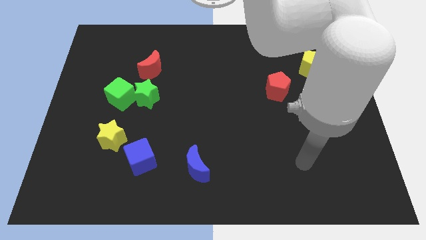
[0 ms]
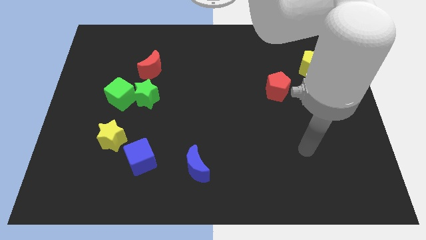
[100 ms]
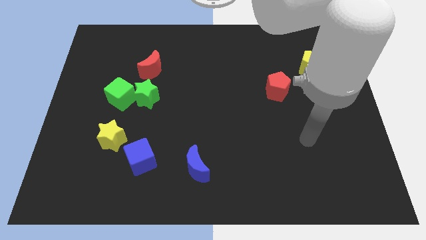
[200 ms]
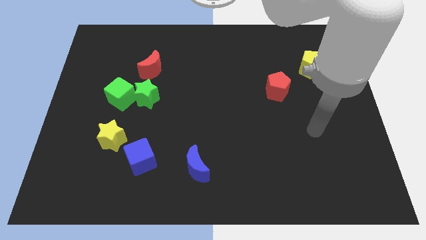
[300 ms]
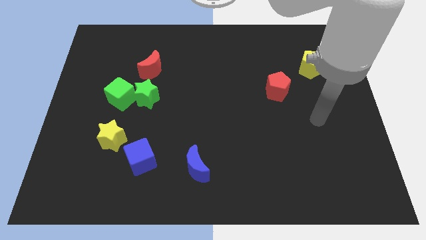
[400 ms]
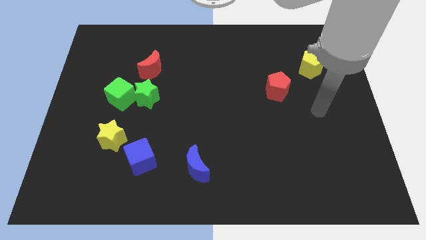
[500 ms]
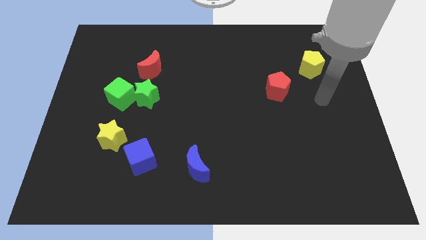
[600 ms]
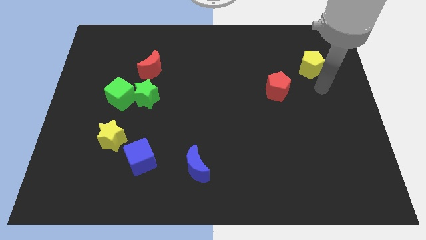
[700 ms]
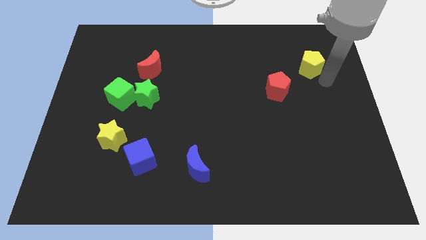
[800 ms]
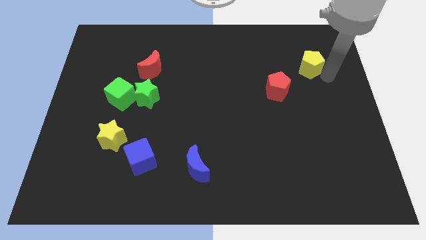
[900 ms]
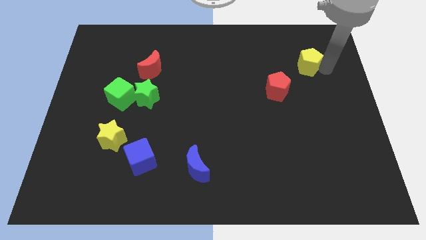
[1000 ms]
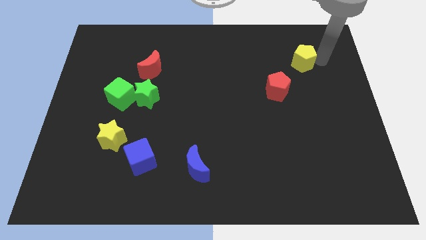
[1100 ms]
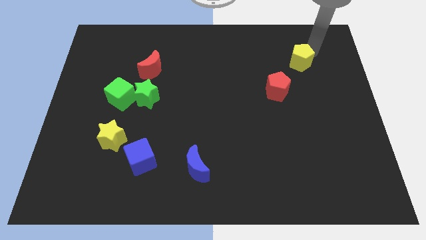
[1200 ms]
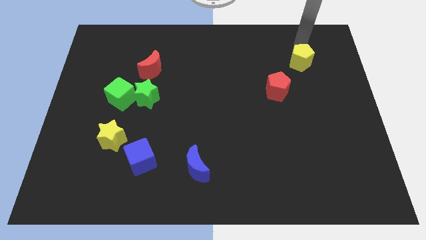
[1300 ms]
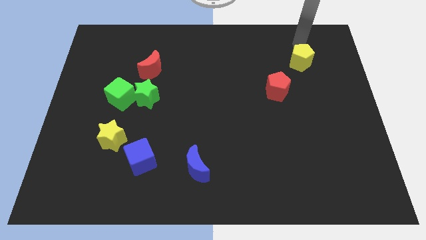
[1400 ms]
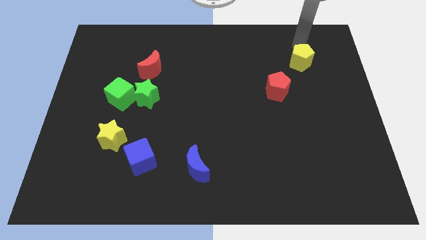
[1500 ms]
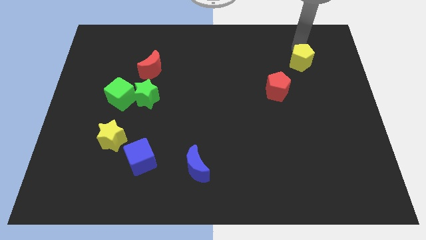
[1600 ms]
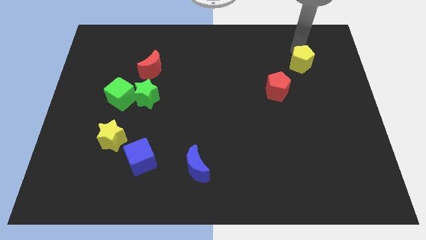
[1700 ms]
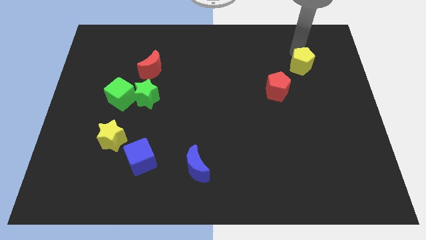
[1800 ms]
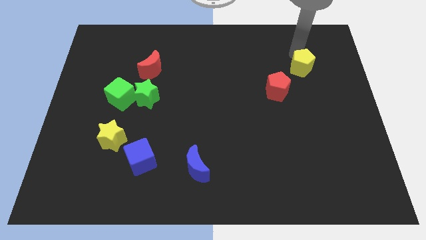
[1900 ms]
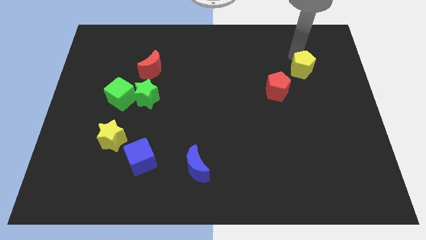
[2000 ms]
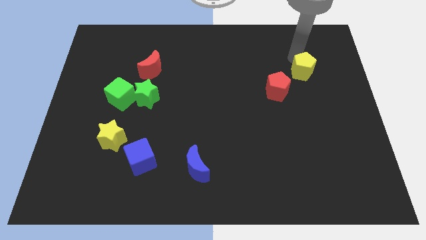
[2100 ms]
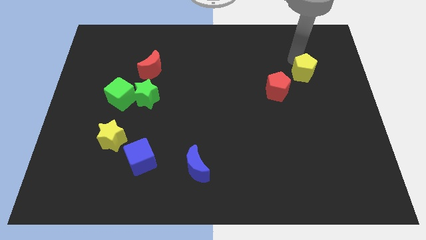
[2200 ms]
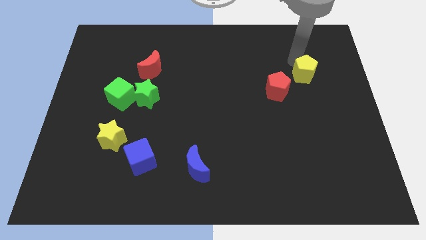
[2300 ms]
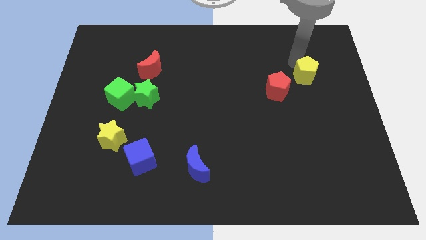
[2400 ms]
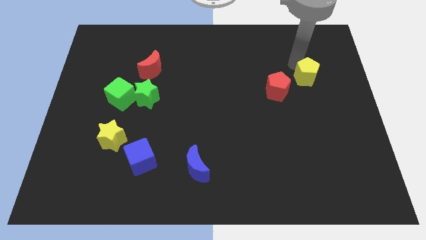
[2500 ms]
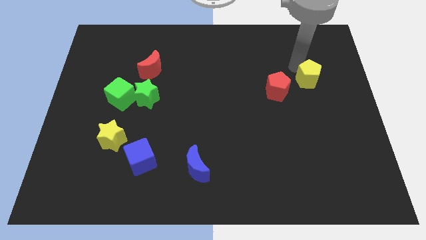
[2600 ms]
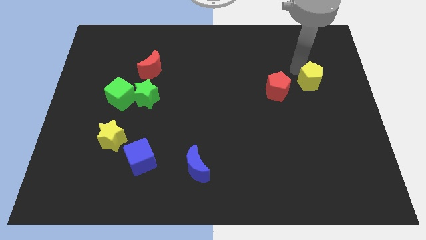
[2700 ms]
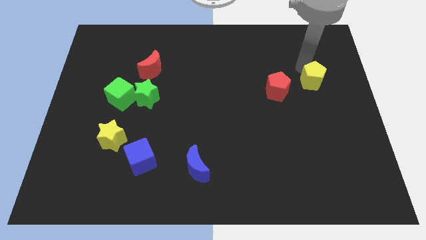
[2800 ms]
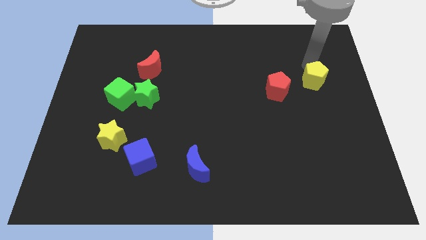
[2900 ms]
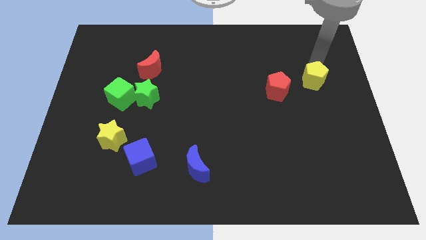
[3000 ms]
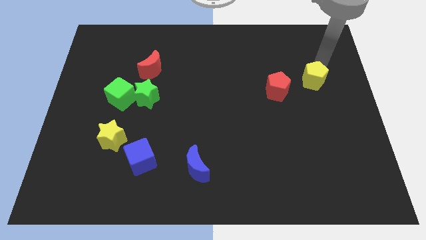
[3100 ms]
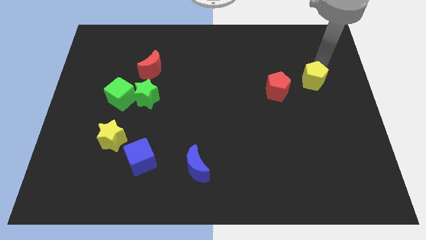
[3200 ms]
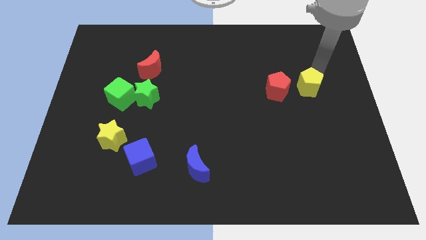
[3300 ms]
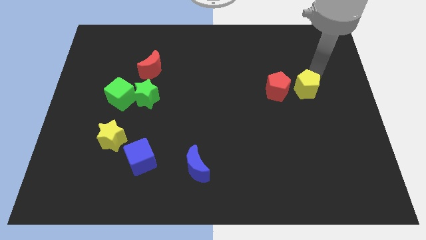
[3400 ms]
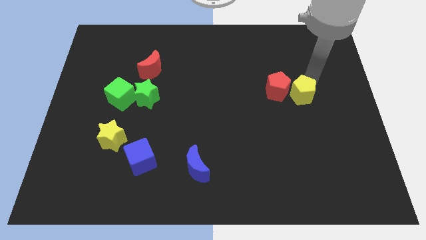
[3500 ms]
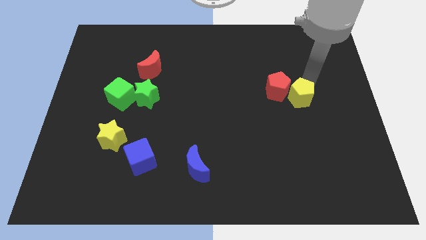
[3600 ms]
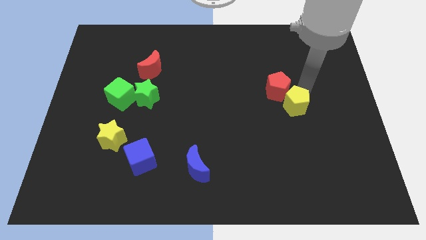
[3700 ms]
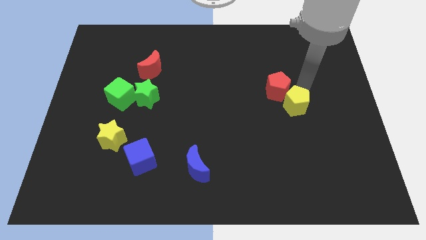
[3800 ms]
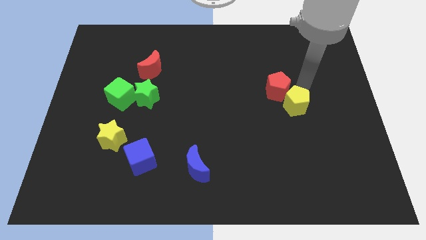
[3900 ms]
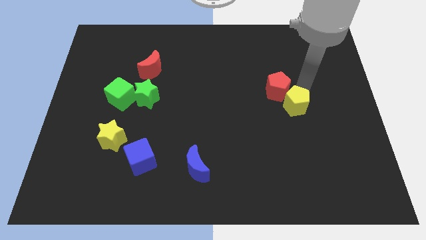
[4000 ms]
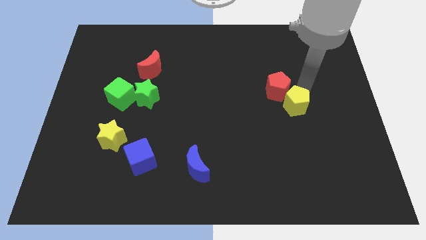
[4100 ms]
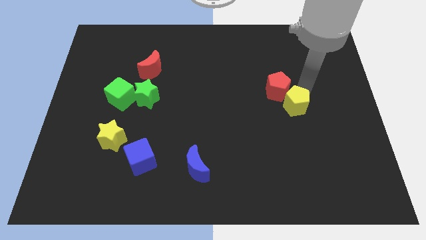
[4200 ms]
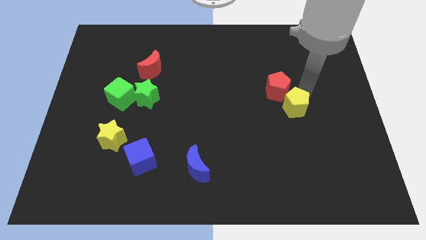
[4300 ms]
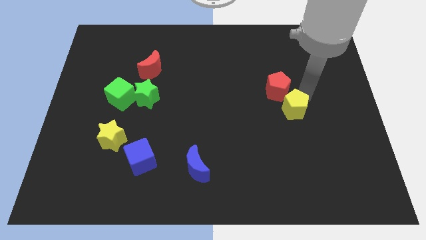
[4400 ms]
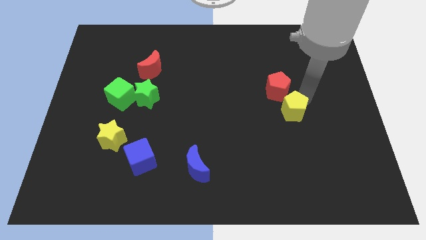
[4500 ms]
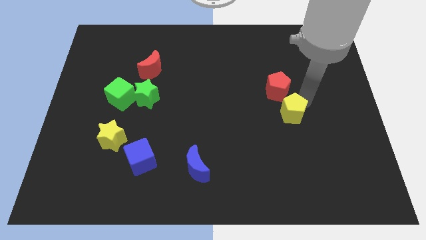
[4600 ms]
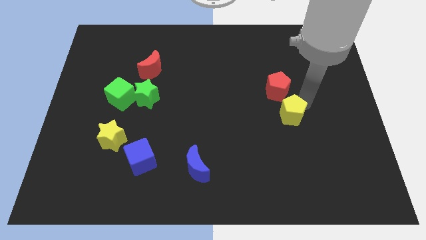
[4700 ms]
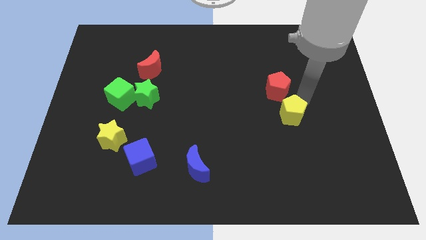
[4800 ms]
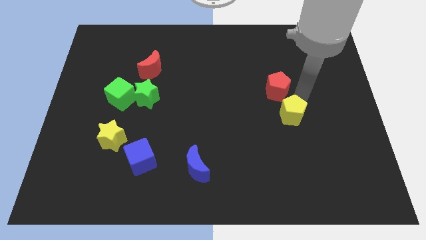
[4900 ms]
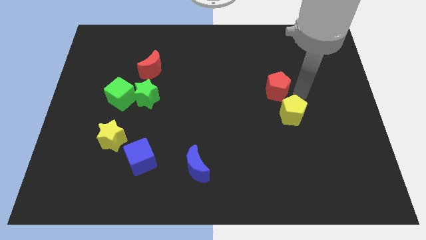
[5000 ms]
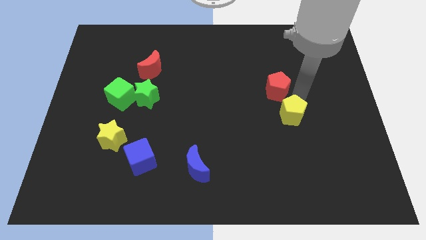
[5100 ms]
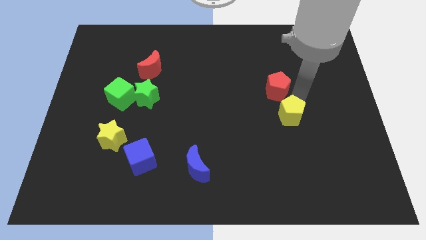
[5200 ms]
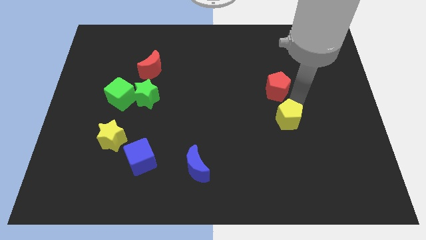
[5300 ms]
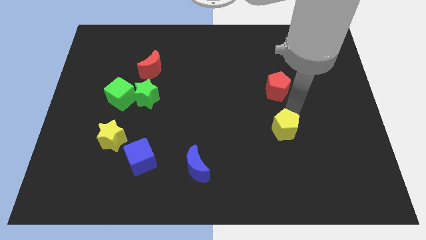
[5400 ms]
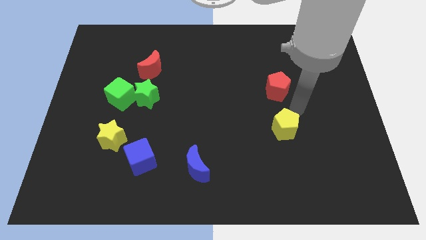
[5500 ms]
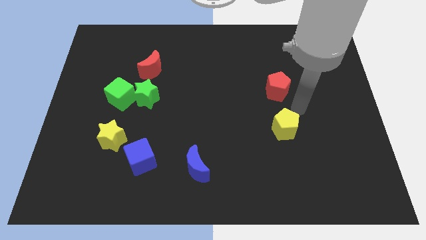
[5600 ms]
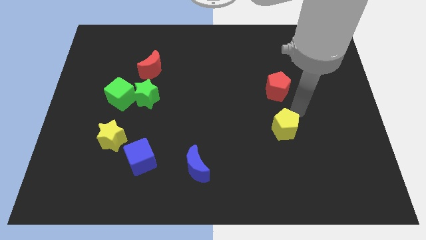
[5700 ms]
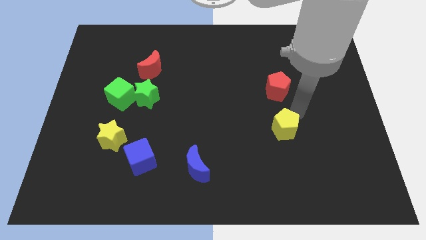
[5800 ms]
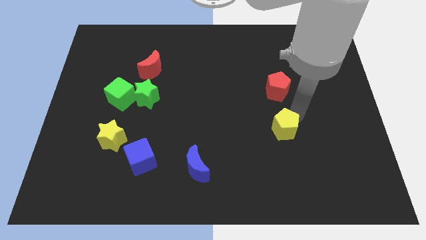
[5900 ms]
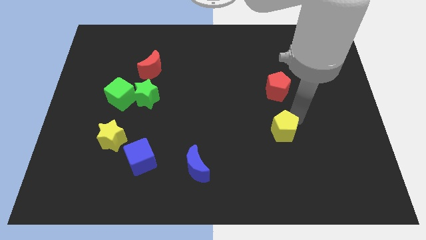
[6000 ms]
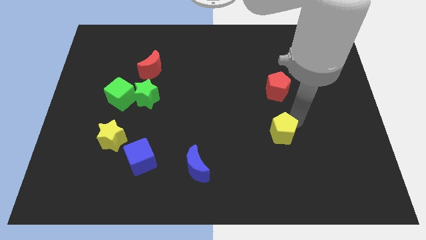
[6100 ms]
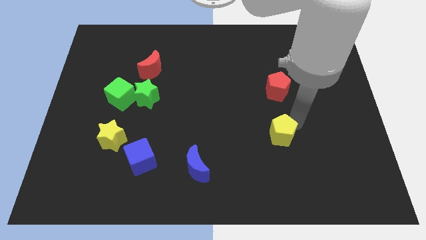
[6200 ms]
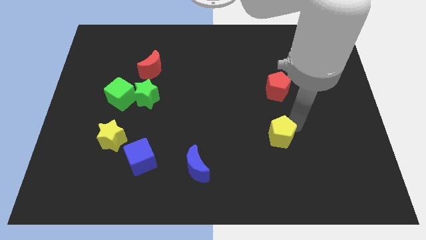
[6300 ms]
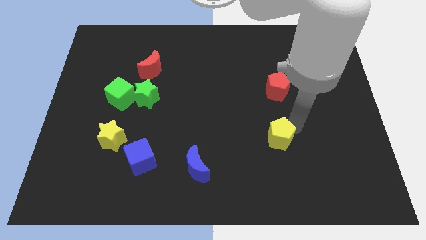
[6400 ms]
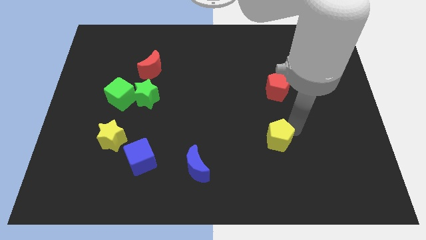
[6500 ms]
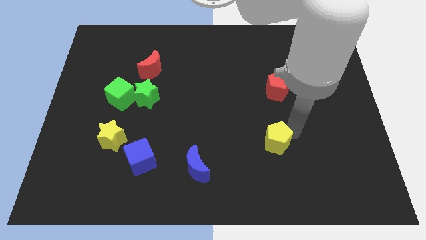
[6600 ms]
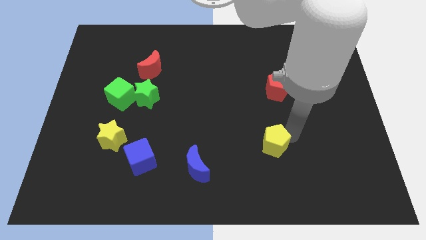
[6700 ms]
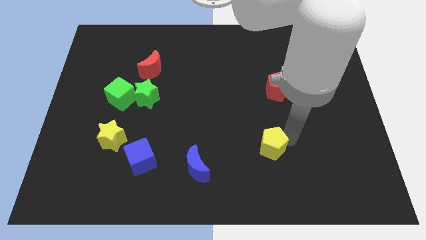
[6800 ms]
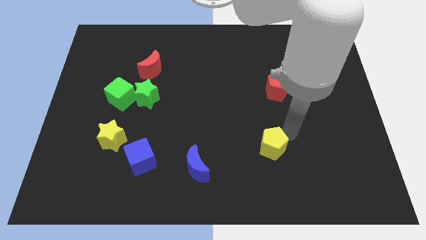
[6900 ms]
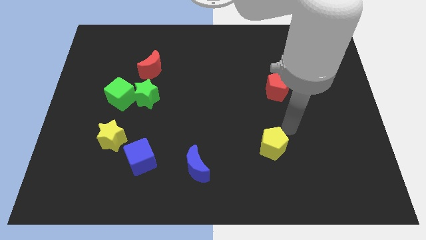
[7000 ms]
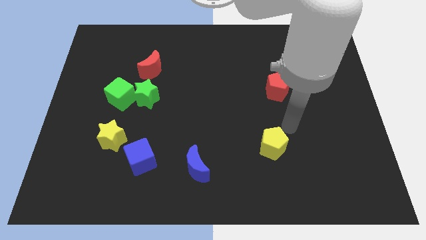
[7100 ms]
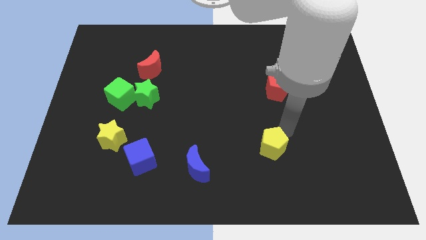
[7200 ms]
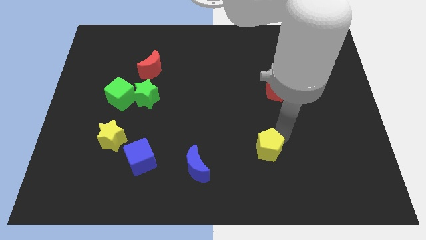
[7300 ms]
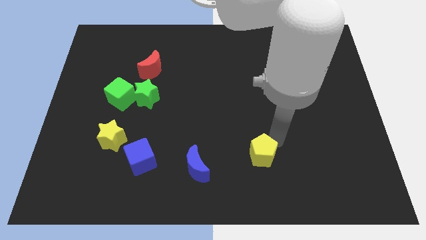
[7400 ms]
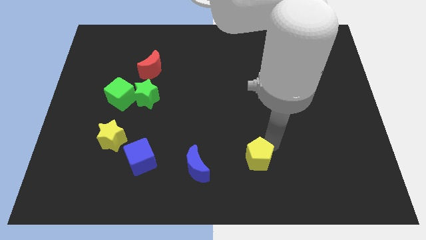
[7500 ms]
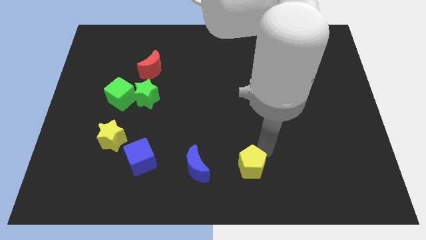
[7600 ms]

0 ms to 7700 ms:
push the yellow pentagon to the bottom
